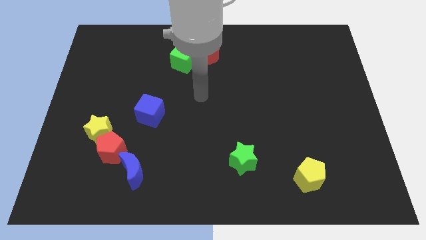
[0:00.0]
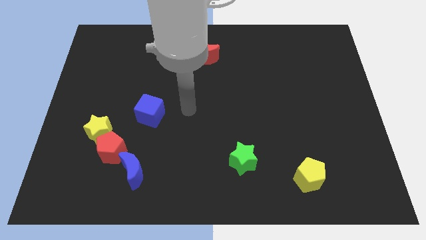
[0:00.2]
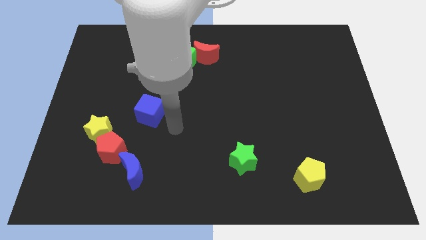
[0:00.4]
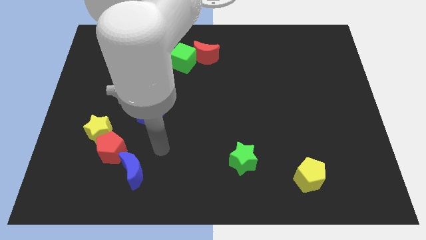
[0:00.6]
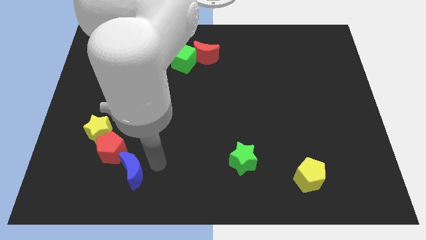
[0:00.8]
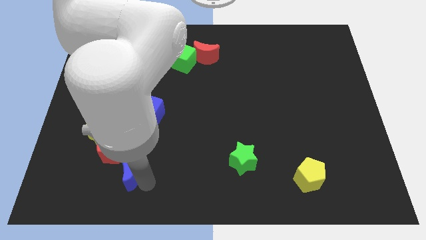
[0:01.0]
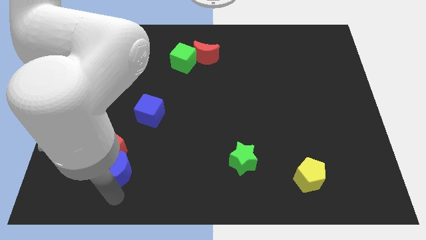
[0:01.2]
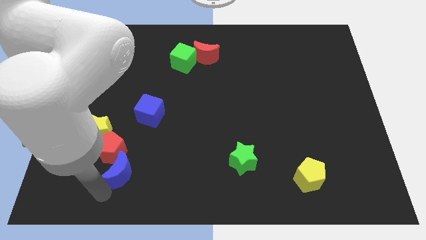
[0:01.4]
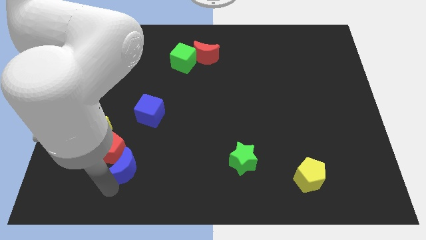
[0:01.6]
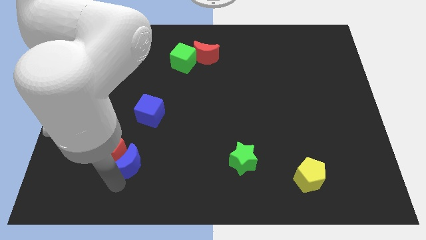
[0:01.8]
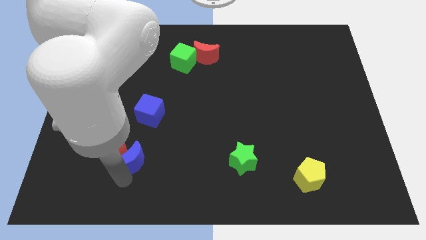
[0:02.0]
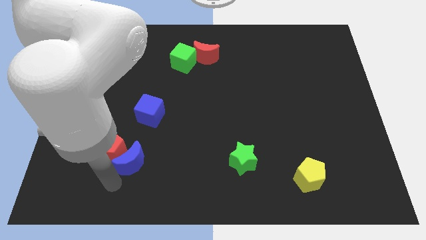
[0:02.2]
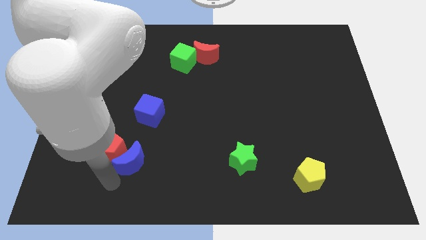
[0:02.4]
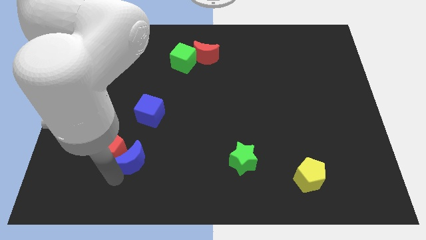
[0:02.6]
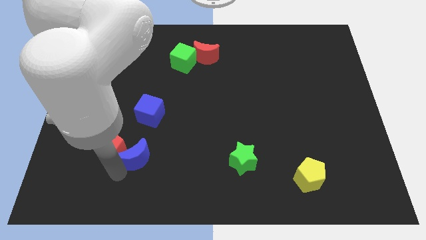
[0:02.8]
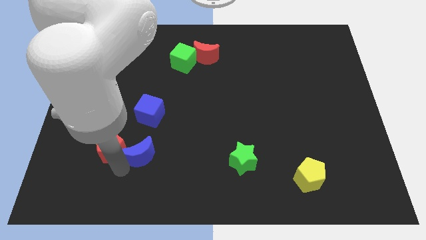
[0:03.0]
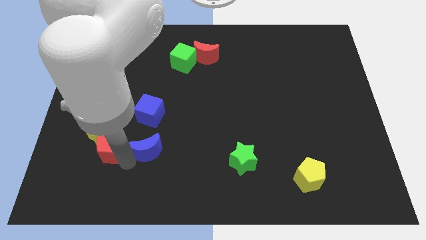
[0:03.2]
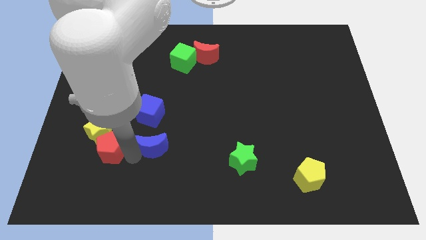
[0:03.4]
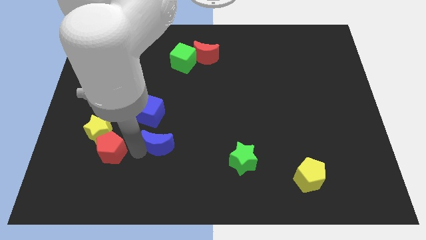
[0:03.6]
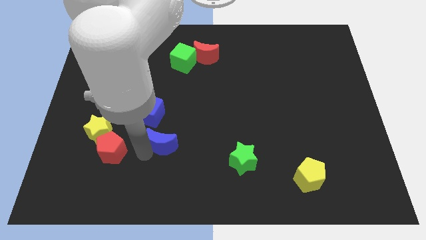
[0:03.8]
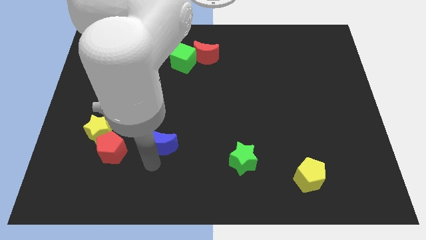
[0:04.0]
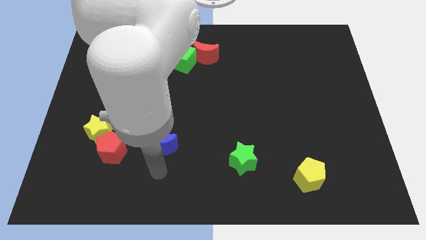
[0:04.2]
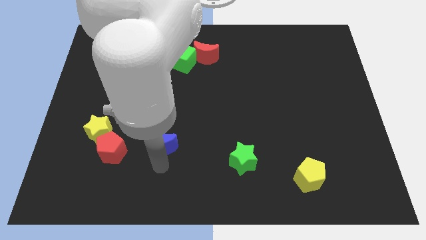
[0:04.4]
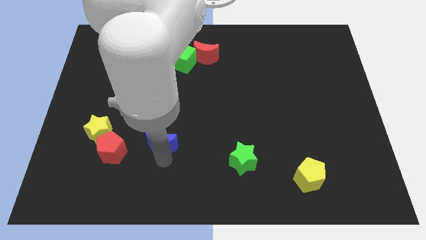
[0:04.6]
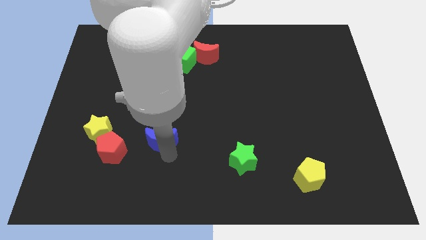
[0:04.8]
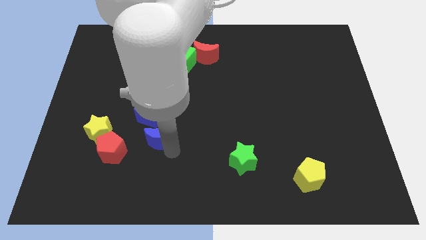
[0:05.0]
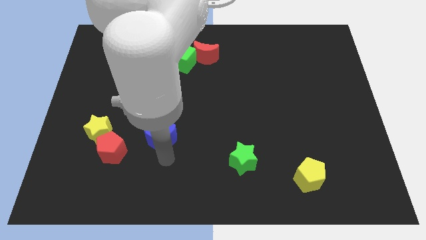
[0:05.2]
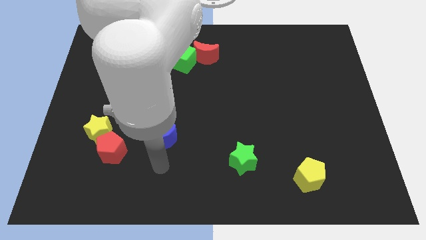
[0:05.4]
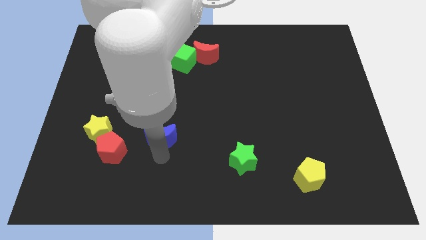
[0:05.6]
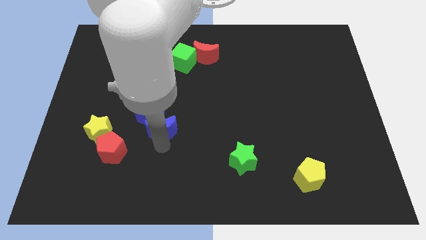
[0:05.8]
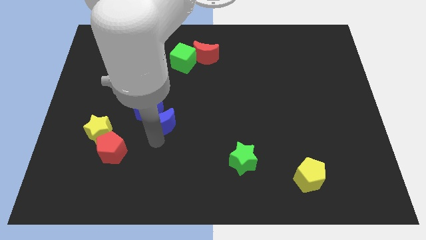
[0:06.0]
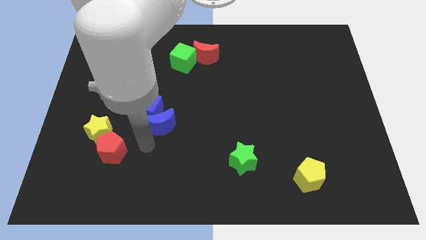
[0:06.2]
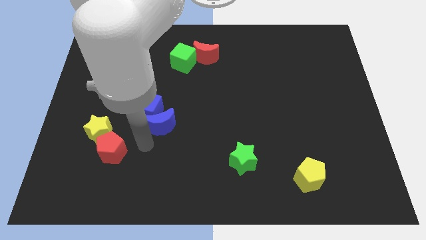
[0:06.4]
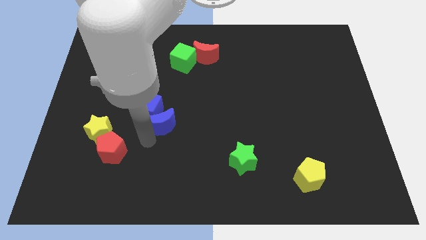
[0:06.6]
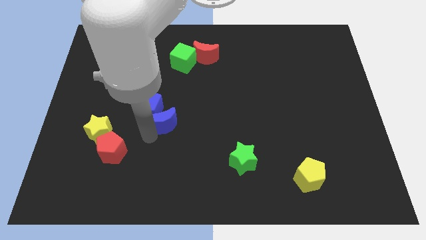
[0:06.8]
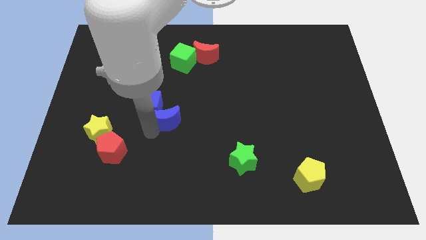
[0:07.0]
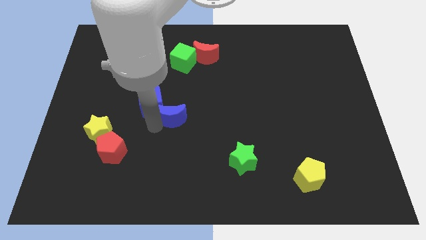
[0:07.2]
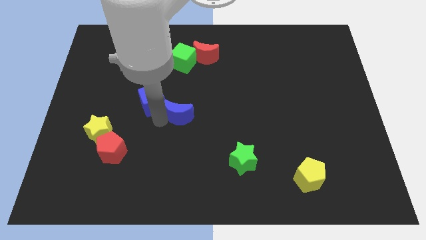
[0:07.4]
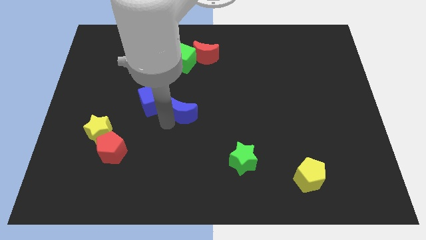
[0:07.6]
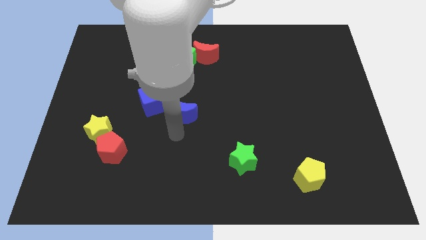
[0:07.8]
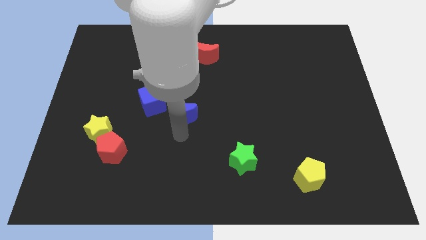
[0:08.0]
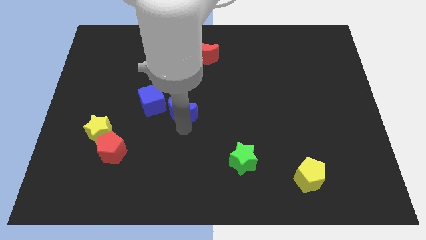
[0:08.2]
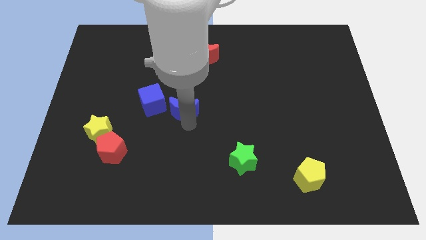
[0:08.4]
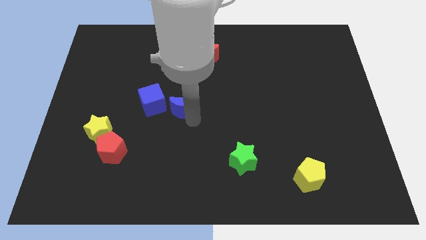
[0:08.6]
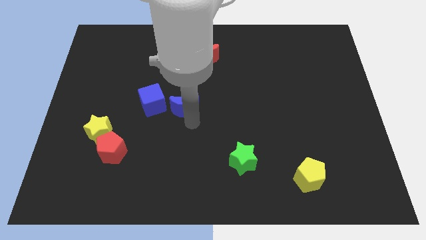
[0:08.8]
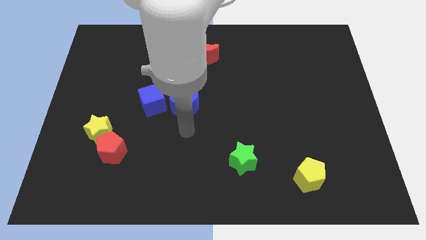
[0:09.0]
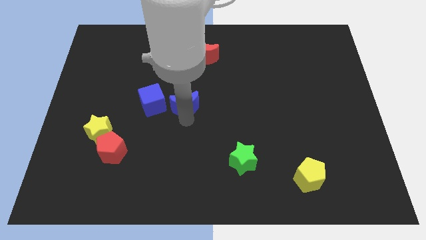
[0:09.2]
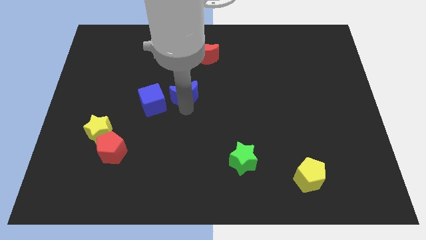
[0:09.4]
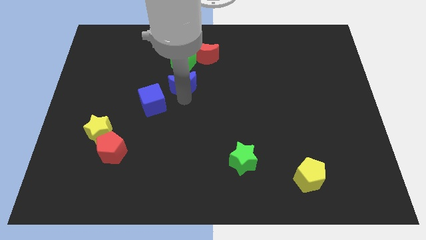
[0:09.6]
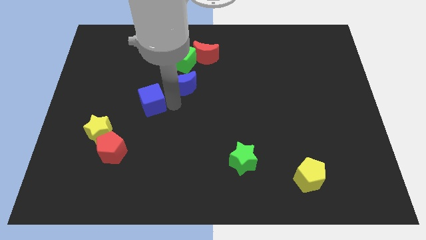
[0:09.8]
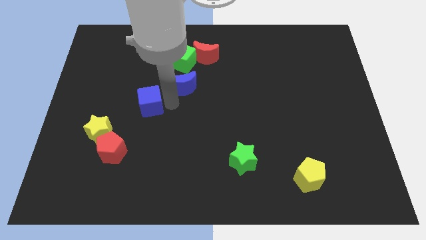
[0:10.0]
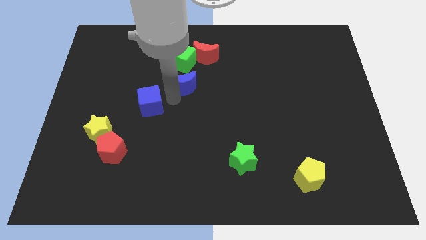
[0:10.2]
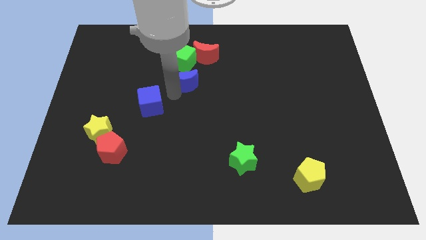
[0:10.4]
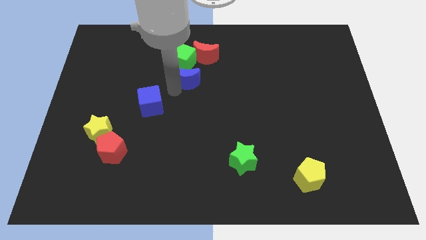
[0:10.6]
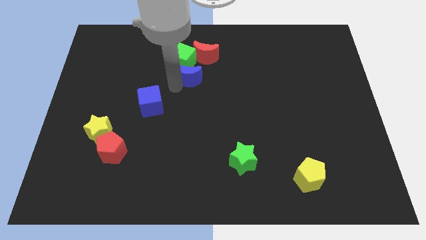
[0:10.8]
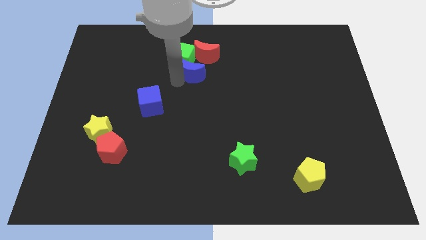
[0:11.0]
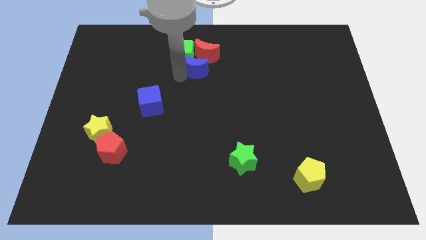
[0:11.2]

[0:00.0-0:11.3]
push the blue moon close to the red moon

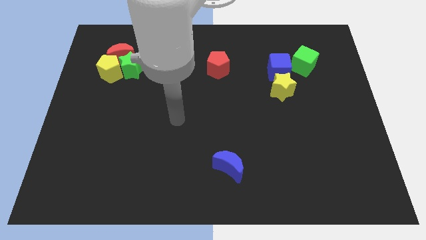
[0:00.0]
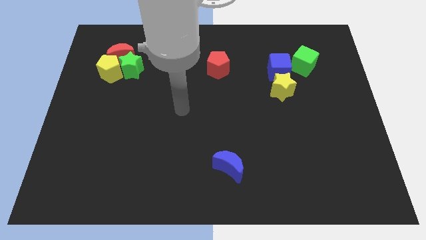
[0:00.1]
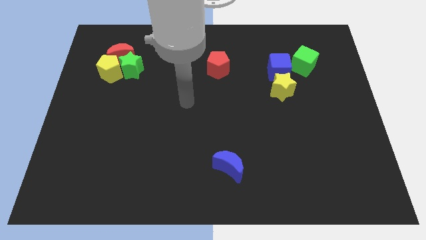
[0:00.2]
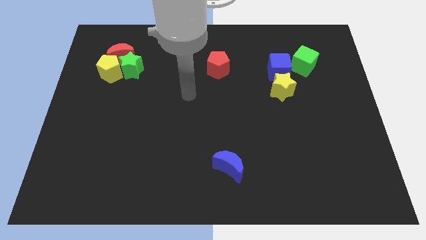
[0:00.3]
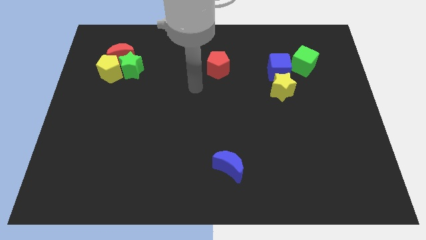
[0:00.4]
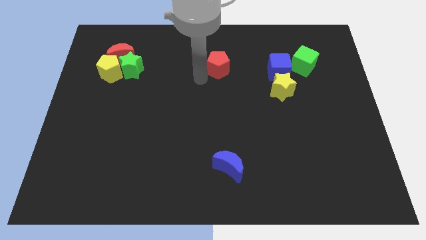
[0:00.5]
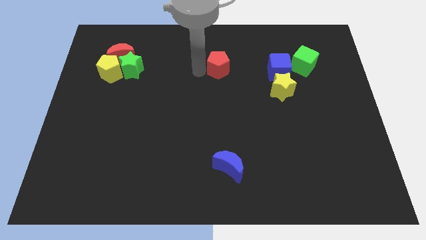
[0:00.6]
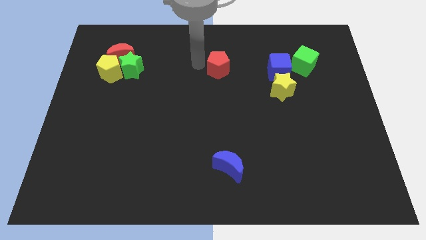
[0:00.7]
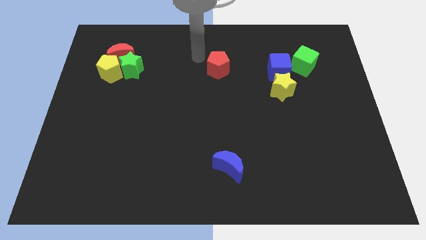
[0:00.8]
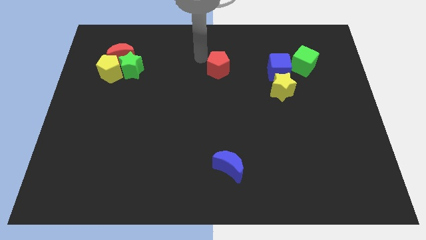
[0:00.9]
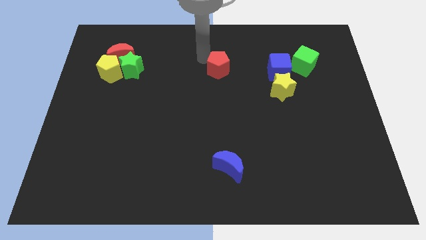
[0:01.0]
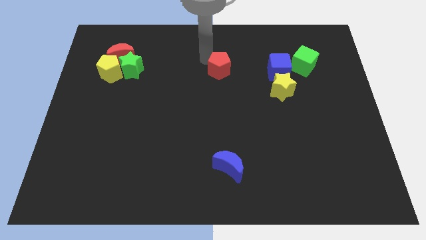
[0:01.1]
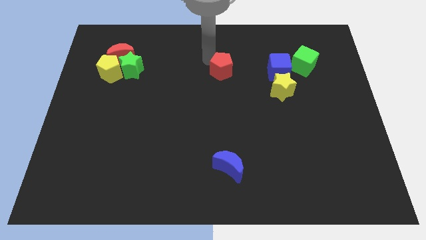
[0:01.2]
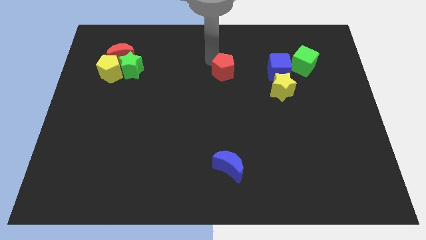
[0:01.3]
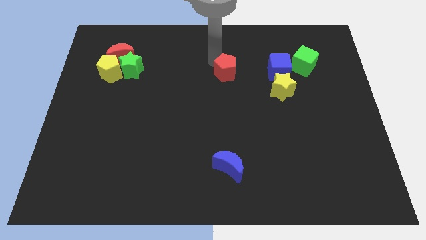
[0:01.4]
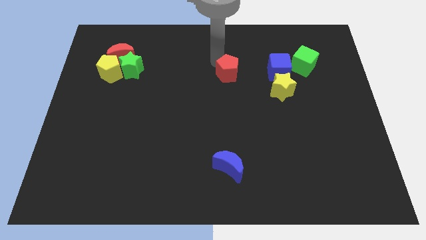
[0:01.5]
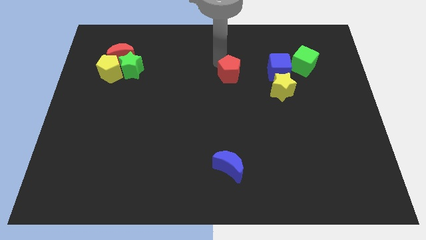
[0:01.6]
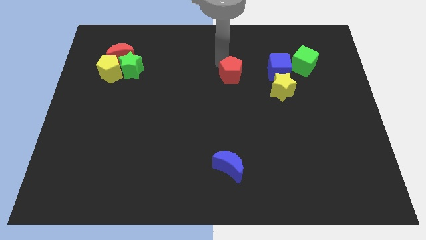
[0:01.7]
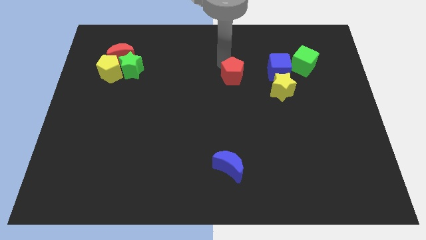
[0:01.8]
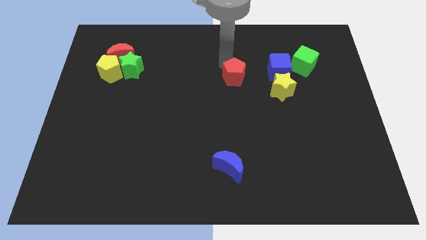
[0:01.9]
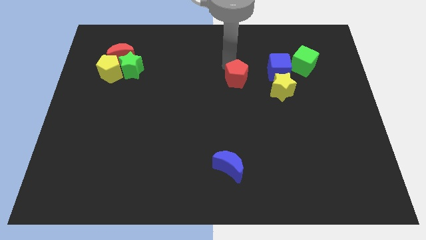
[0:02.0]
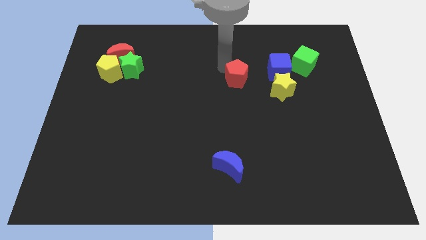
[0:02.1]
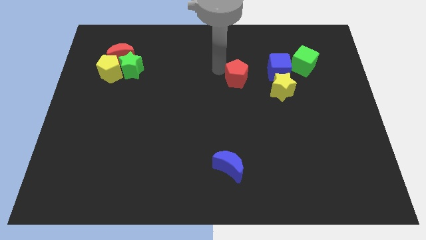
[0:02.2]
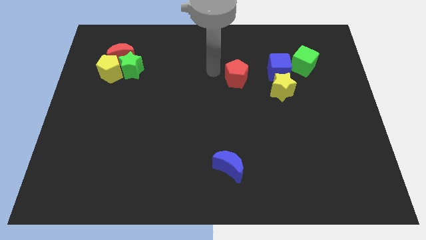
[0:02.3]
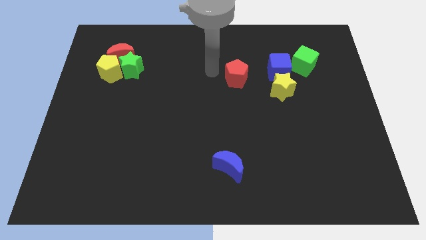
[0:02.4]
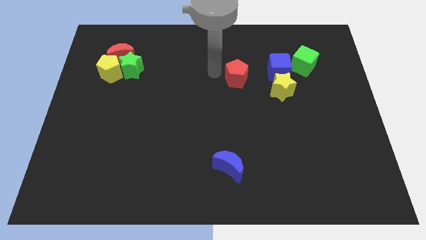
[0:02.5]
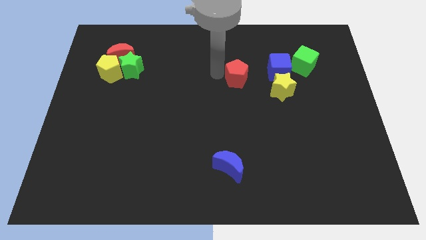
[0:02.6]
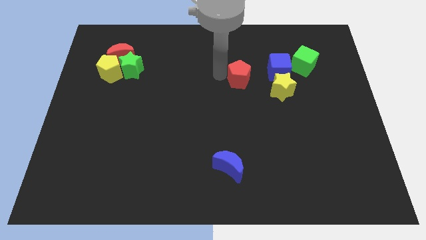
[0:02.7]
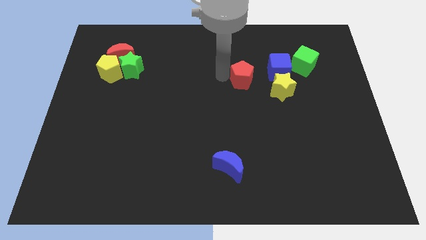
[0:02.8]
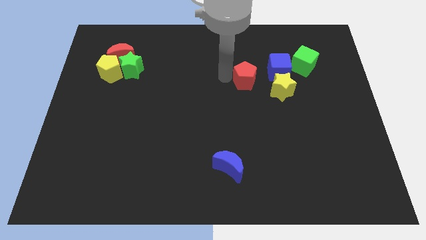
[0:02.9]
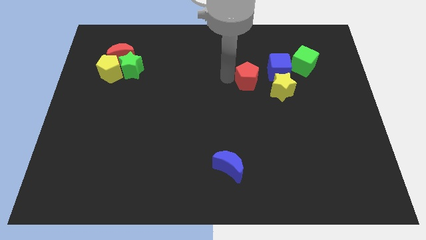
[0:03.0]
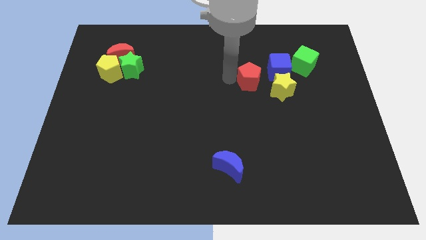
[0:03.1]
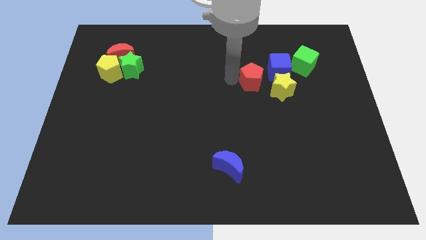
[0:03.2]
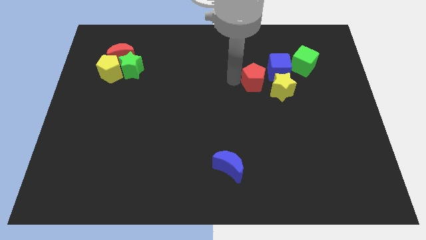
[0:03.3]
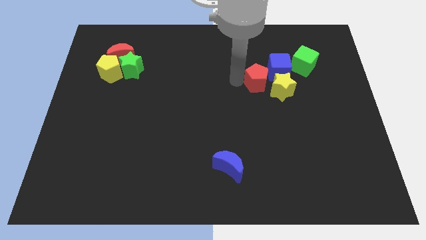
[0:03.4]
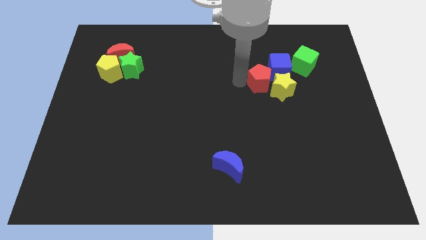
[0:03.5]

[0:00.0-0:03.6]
move the red pentagon next to the yellow star
